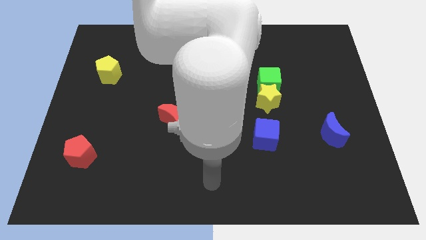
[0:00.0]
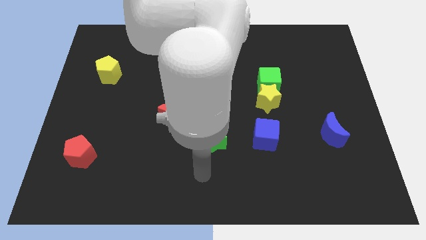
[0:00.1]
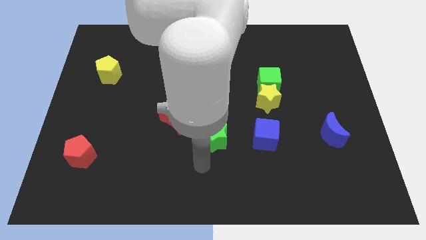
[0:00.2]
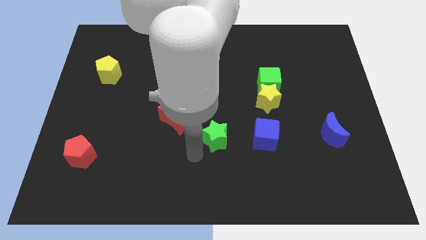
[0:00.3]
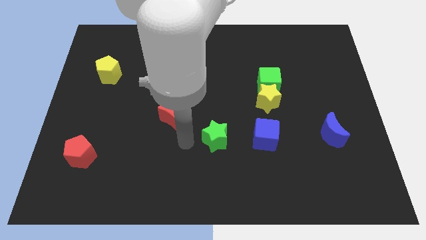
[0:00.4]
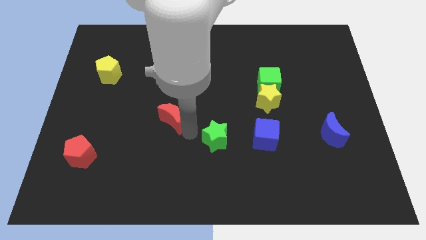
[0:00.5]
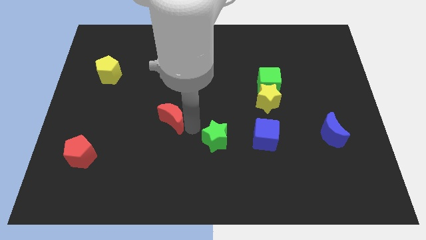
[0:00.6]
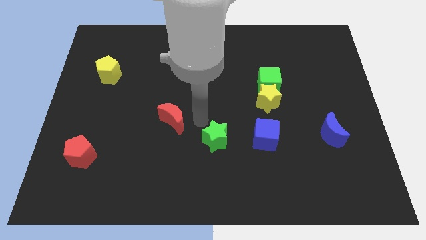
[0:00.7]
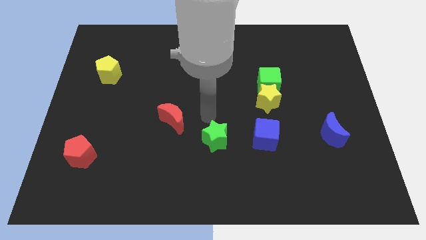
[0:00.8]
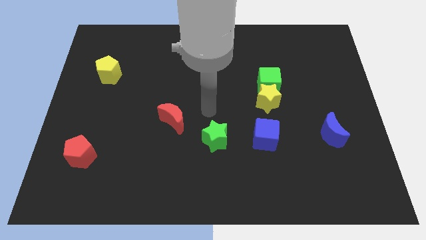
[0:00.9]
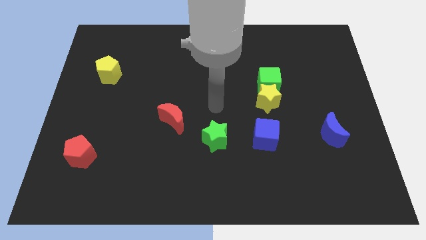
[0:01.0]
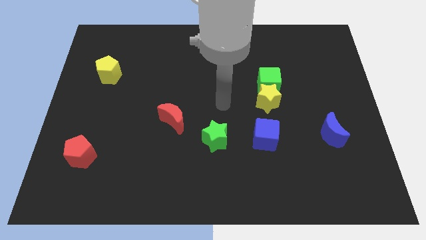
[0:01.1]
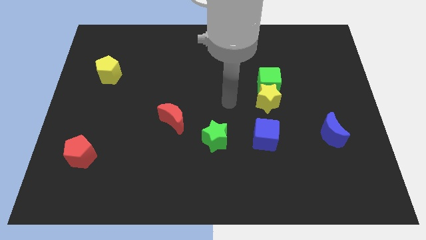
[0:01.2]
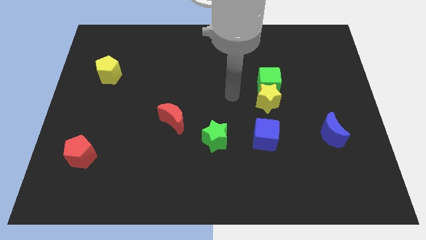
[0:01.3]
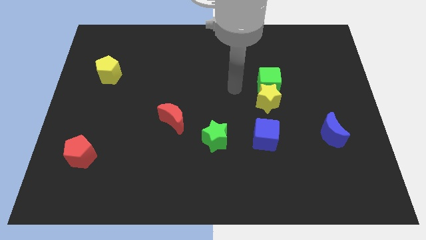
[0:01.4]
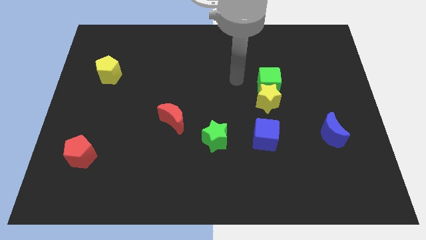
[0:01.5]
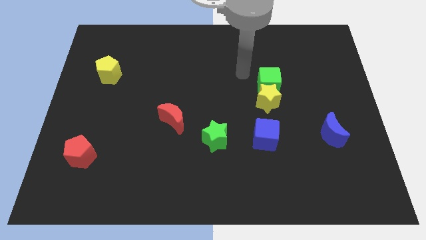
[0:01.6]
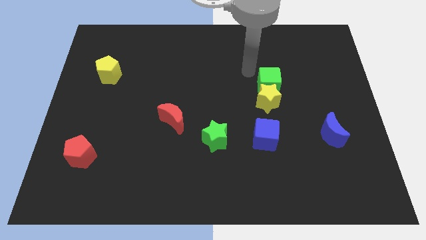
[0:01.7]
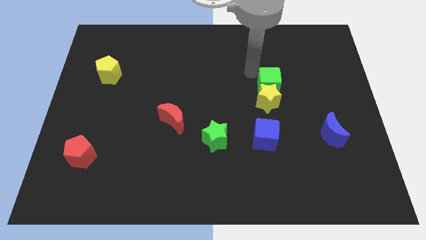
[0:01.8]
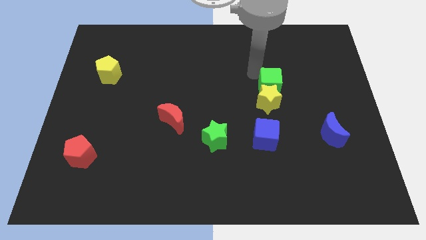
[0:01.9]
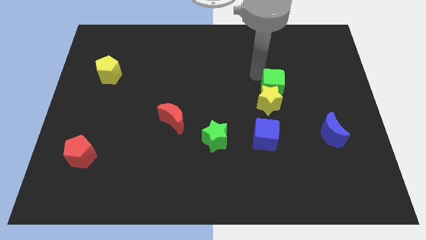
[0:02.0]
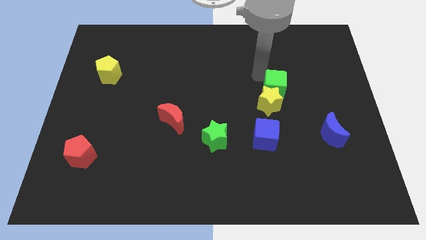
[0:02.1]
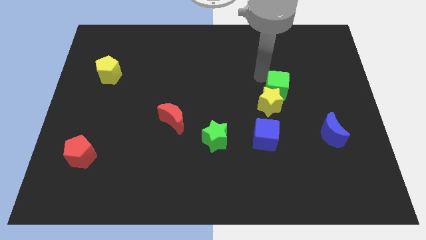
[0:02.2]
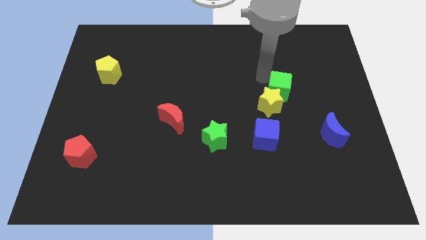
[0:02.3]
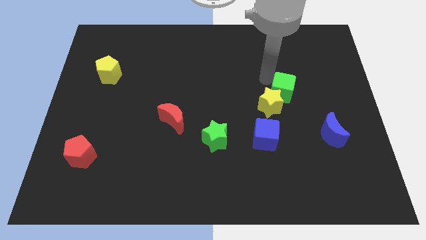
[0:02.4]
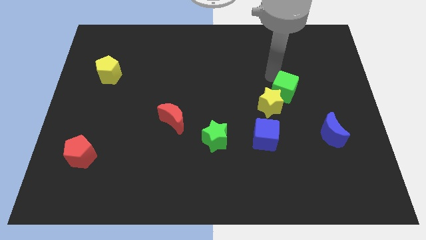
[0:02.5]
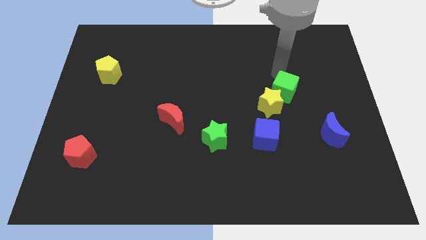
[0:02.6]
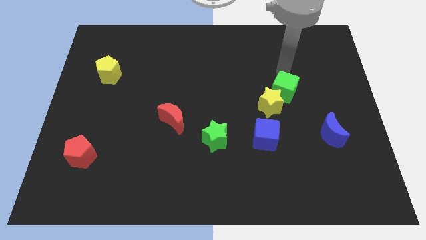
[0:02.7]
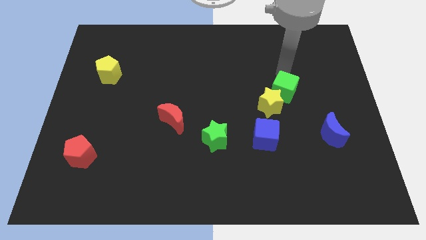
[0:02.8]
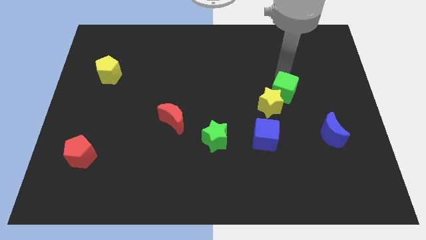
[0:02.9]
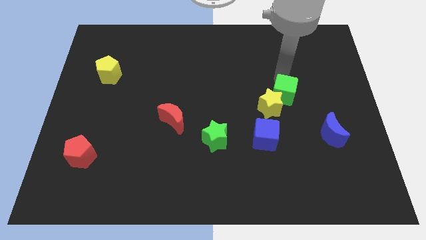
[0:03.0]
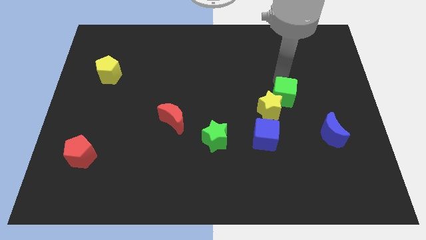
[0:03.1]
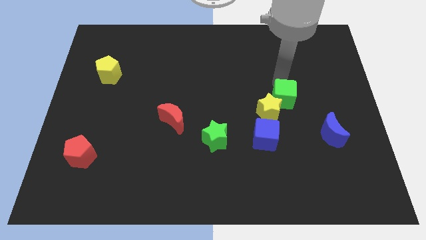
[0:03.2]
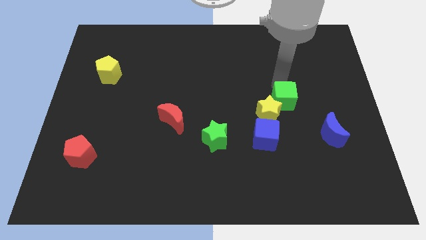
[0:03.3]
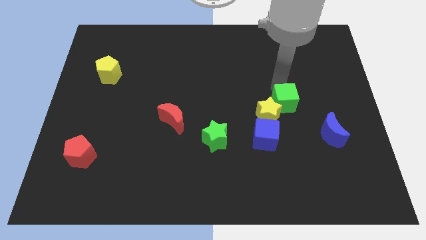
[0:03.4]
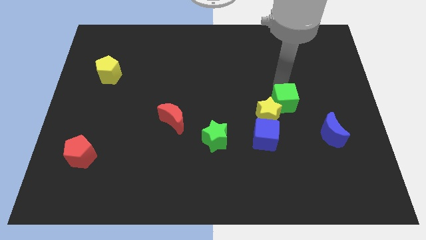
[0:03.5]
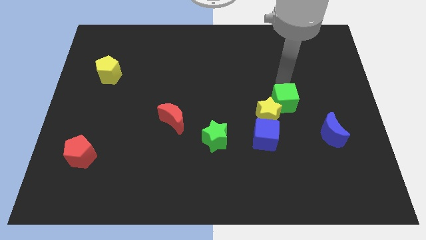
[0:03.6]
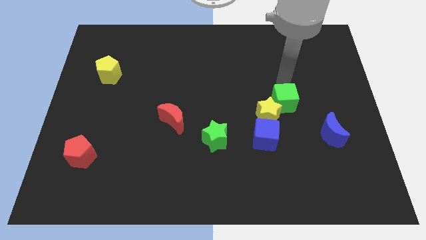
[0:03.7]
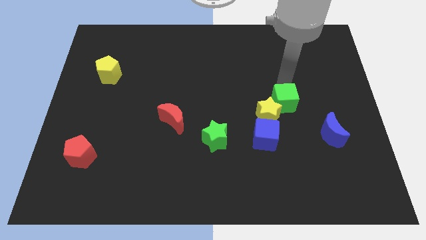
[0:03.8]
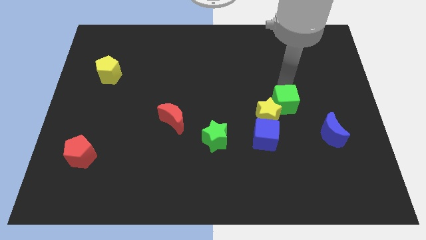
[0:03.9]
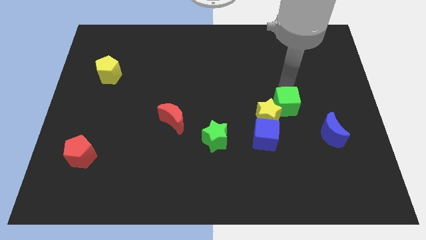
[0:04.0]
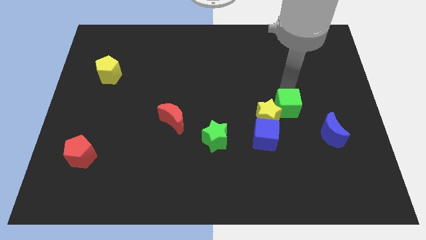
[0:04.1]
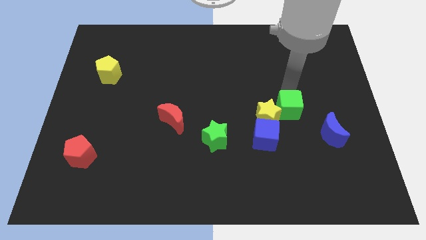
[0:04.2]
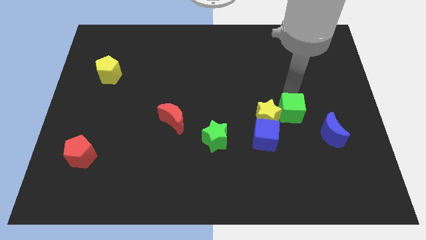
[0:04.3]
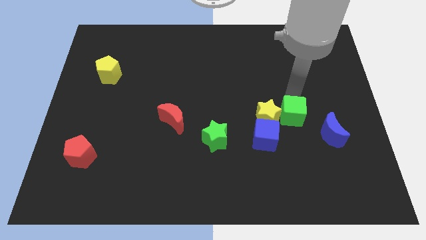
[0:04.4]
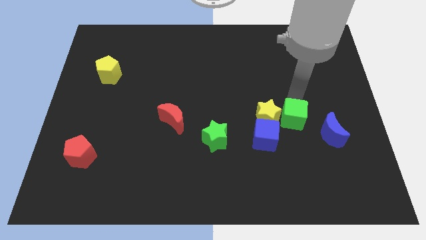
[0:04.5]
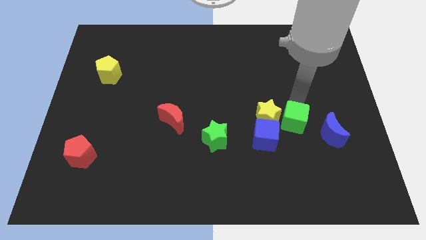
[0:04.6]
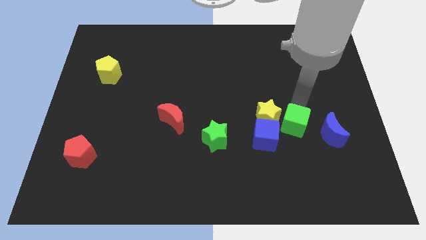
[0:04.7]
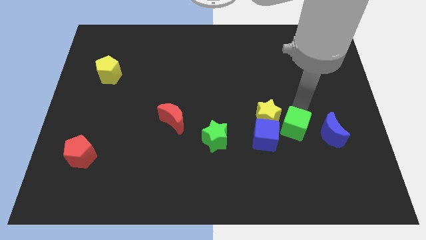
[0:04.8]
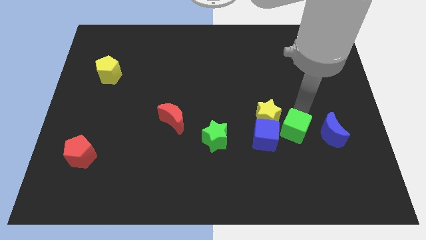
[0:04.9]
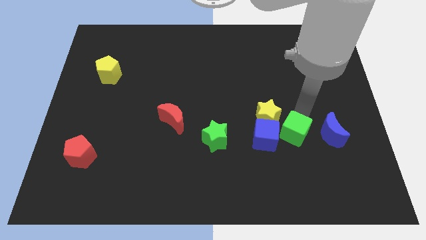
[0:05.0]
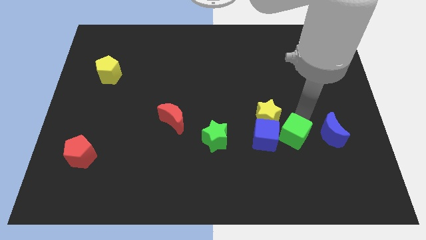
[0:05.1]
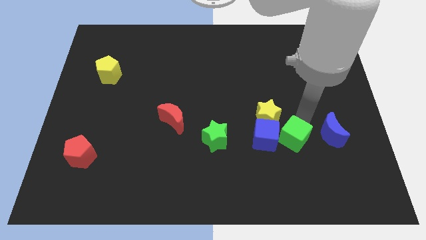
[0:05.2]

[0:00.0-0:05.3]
move the green cube towards the blue cube

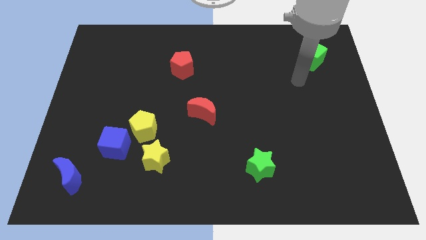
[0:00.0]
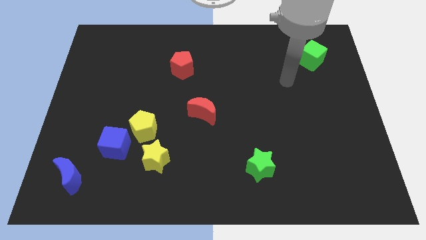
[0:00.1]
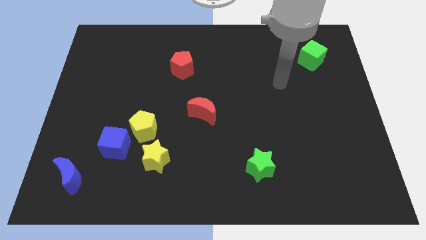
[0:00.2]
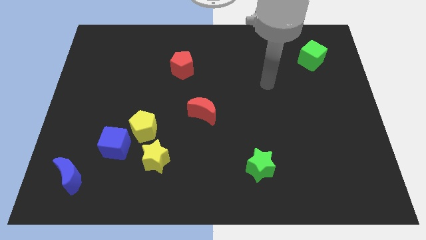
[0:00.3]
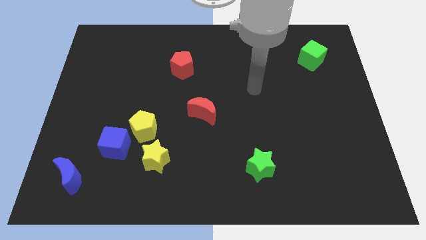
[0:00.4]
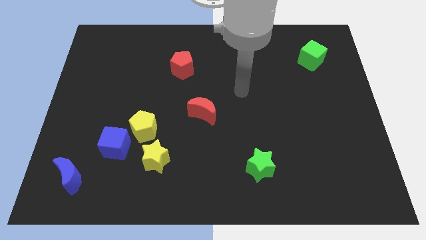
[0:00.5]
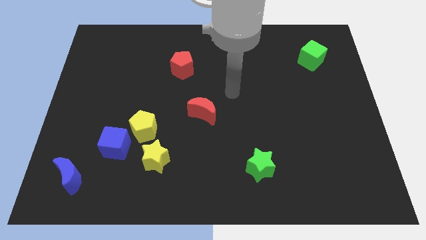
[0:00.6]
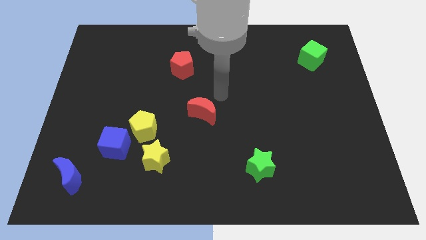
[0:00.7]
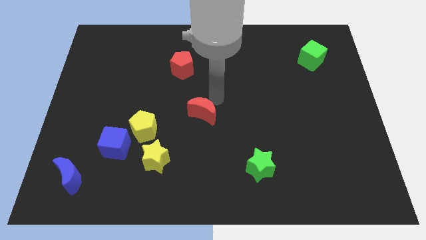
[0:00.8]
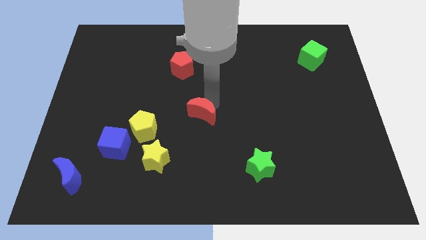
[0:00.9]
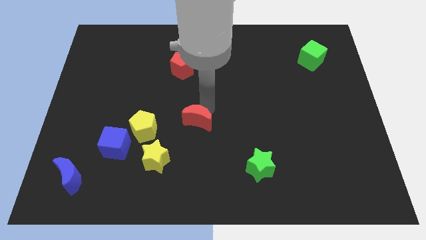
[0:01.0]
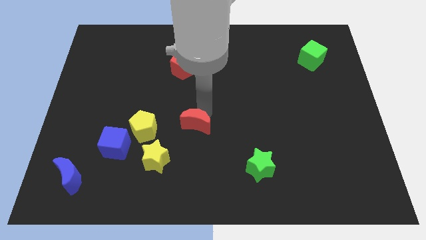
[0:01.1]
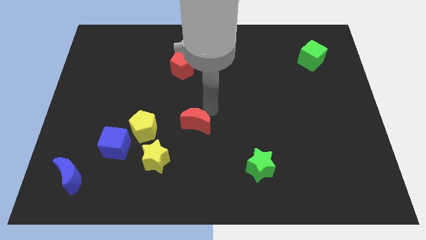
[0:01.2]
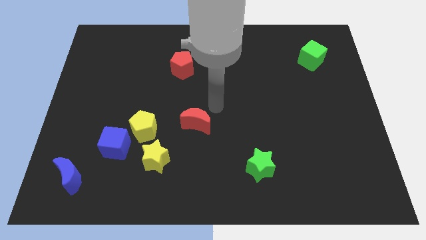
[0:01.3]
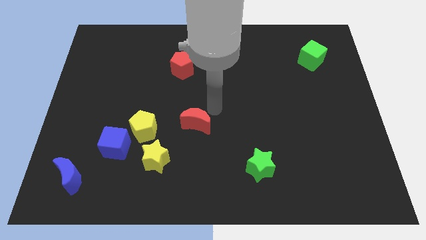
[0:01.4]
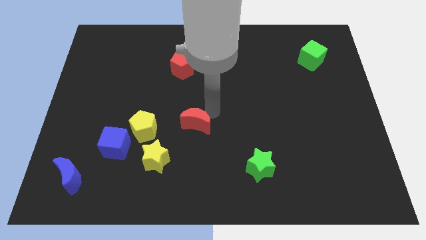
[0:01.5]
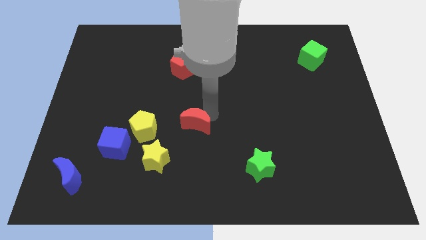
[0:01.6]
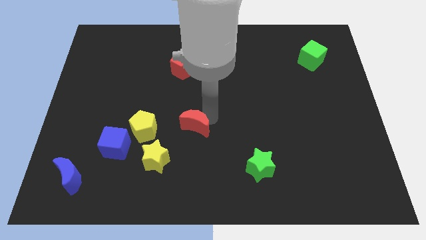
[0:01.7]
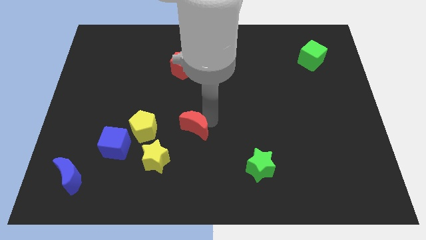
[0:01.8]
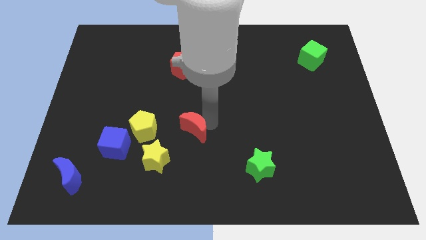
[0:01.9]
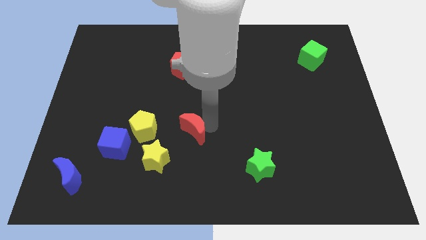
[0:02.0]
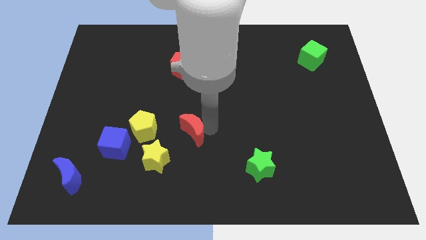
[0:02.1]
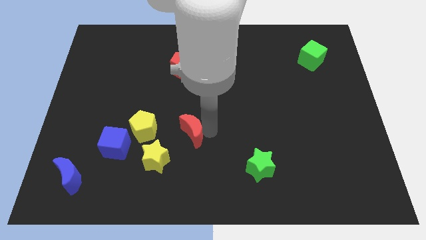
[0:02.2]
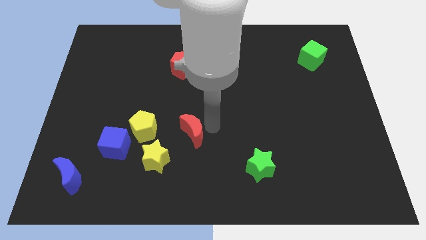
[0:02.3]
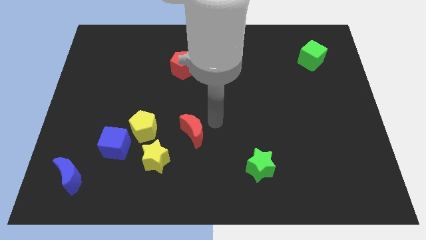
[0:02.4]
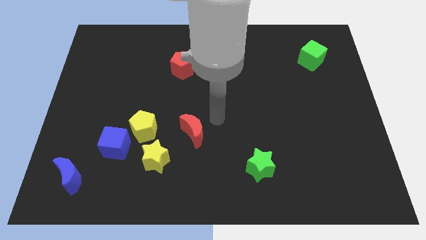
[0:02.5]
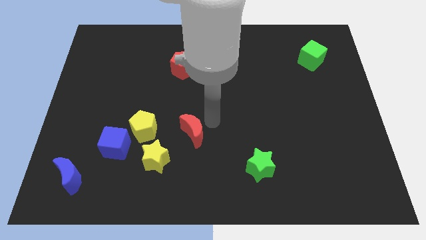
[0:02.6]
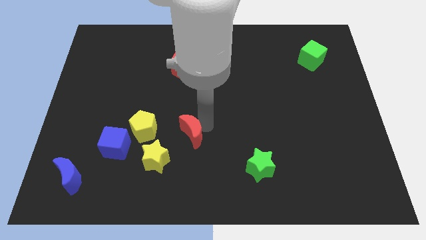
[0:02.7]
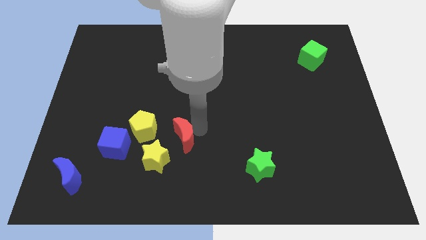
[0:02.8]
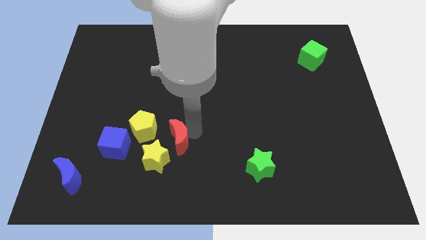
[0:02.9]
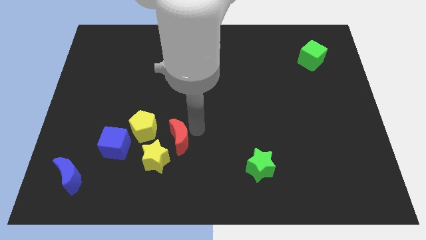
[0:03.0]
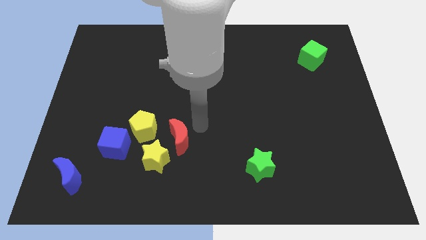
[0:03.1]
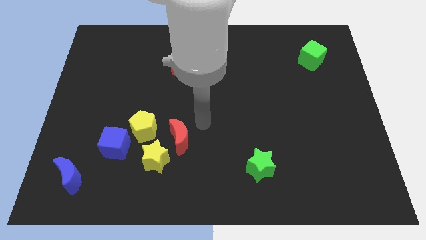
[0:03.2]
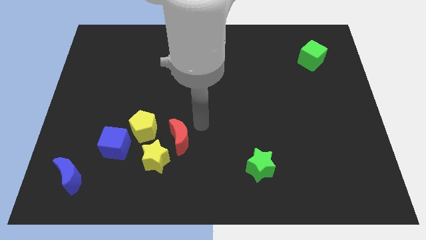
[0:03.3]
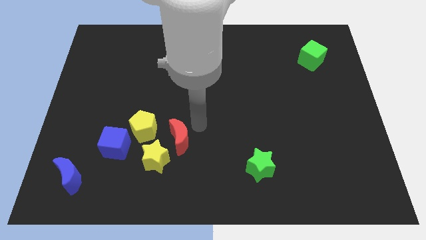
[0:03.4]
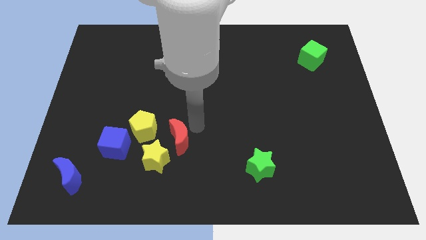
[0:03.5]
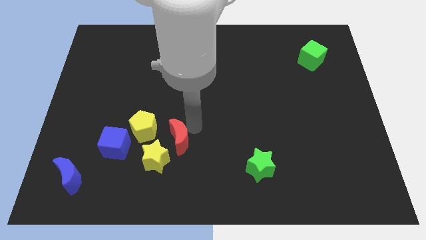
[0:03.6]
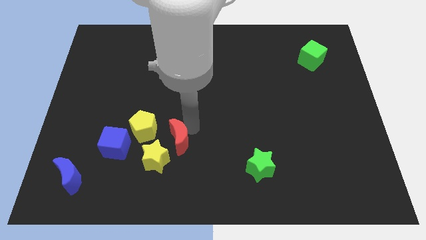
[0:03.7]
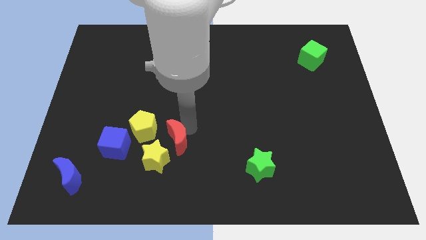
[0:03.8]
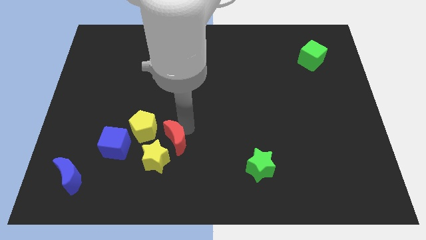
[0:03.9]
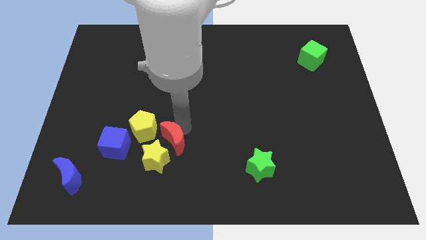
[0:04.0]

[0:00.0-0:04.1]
push the red moon towards the yellow star
